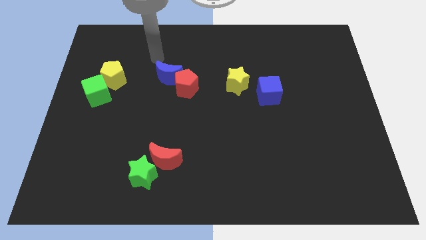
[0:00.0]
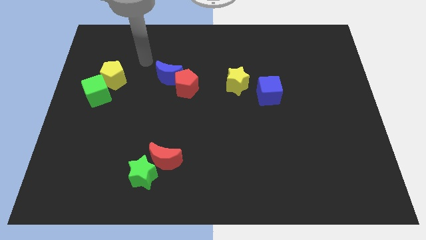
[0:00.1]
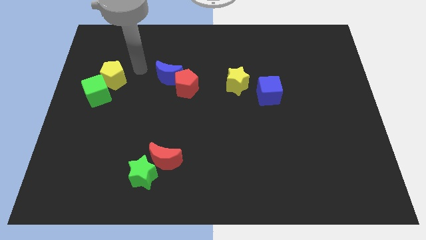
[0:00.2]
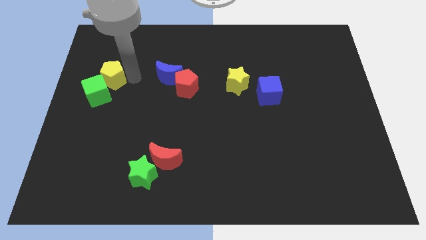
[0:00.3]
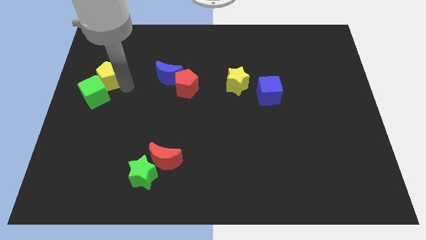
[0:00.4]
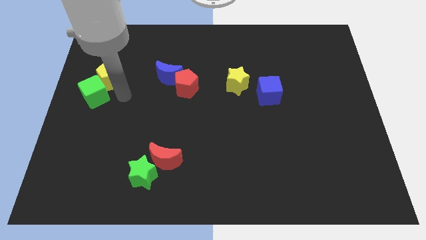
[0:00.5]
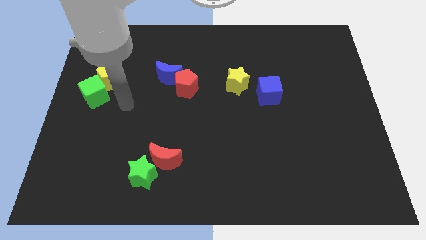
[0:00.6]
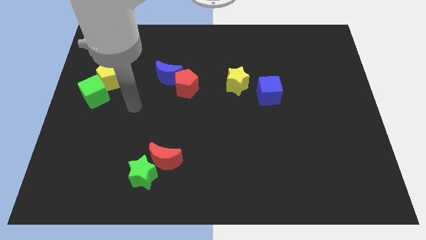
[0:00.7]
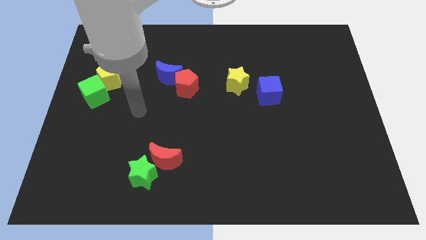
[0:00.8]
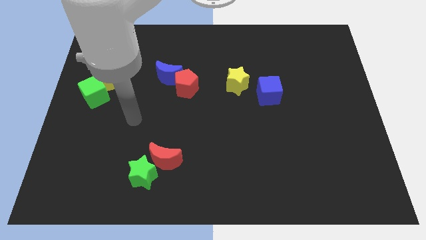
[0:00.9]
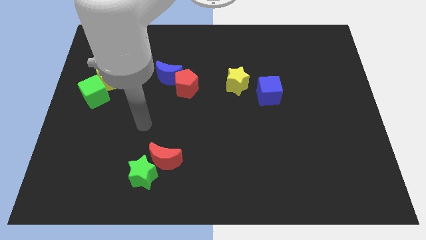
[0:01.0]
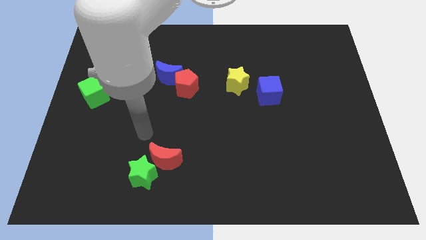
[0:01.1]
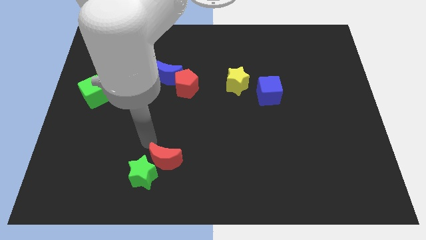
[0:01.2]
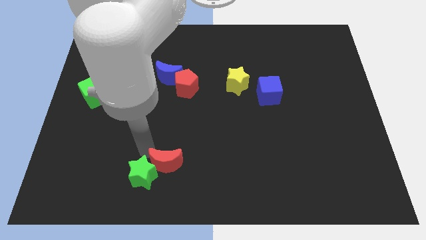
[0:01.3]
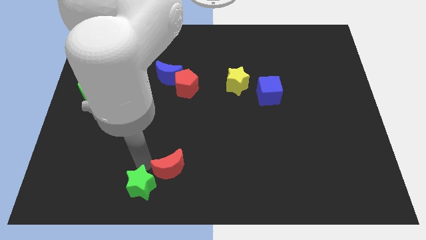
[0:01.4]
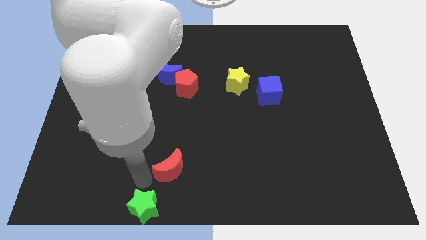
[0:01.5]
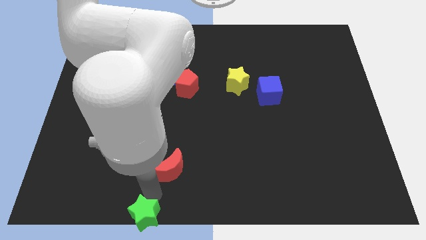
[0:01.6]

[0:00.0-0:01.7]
pull the red moon apart from the green star

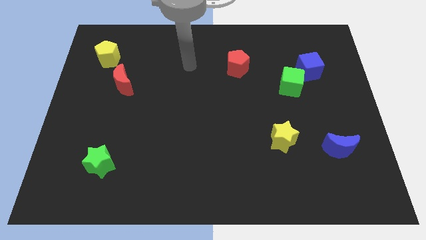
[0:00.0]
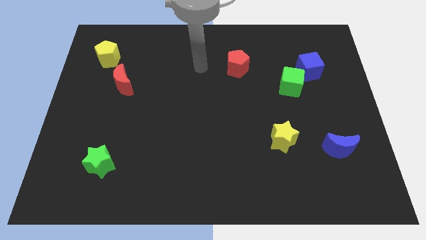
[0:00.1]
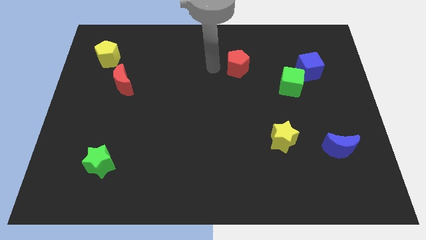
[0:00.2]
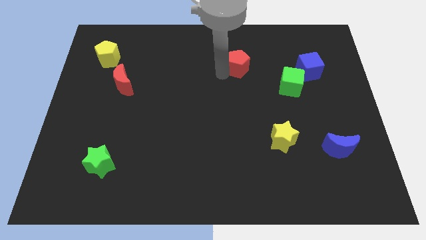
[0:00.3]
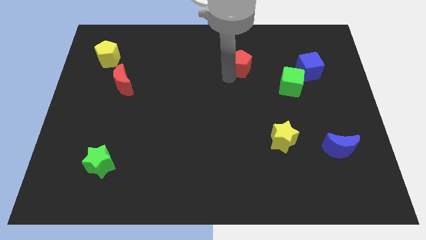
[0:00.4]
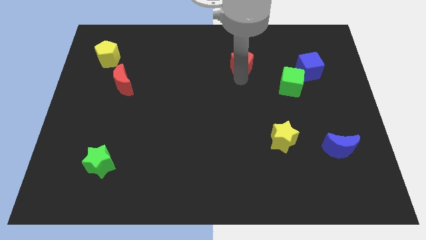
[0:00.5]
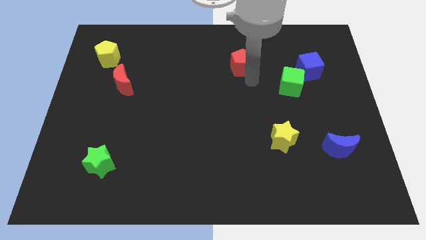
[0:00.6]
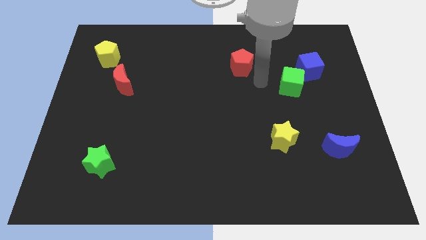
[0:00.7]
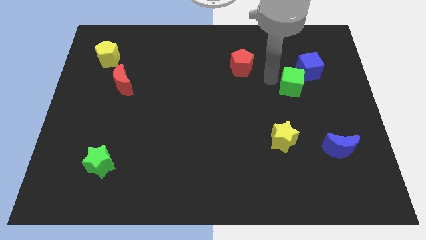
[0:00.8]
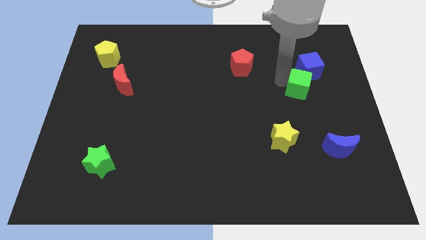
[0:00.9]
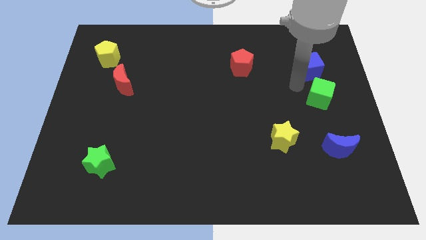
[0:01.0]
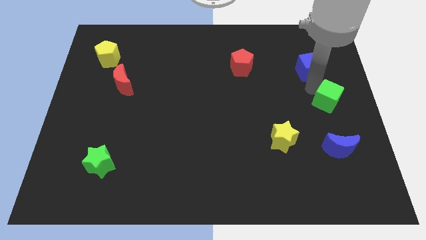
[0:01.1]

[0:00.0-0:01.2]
move the blue cube away from the green cube

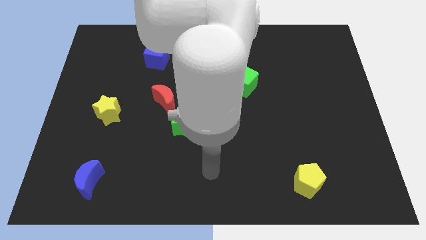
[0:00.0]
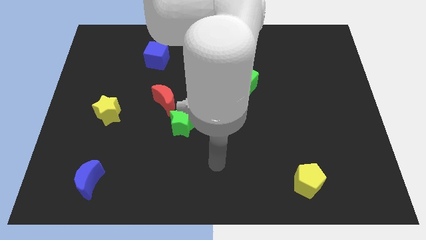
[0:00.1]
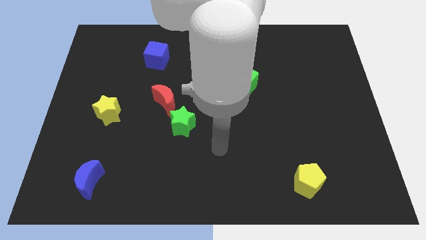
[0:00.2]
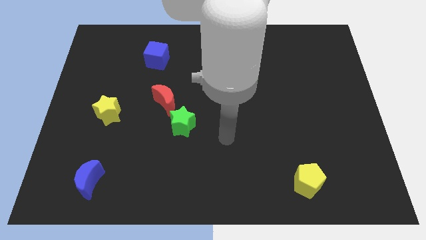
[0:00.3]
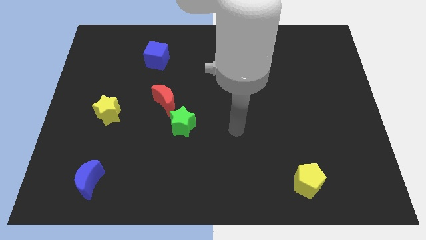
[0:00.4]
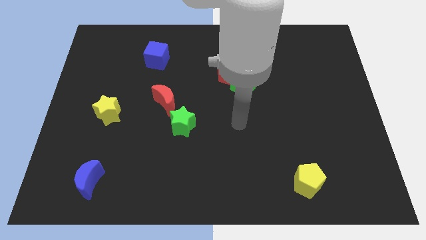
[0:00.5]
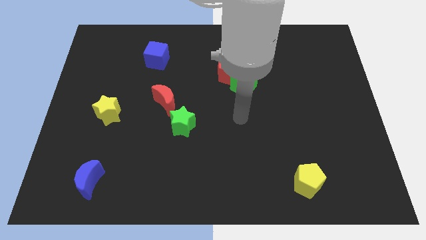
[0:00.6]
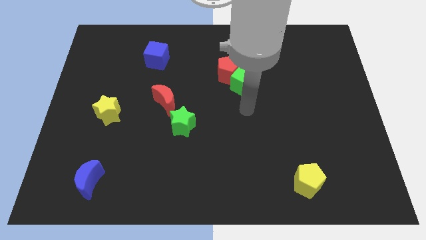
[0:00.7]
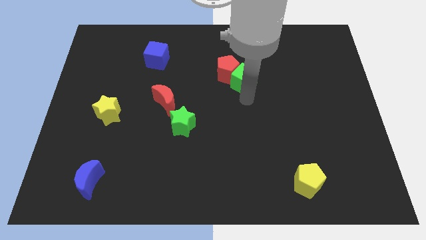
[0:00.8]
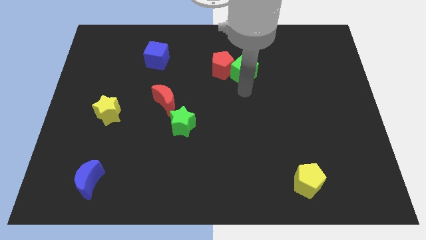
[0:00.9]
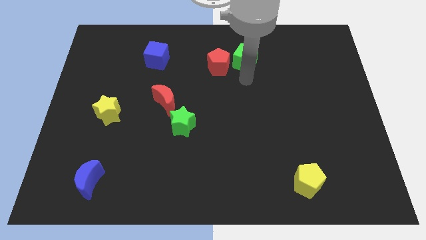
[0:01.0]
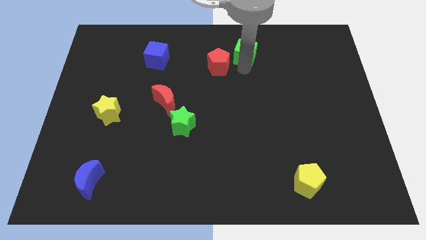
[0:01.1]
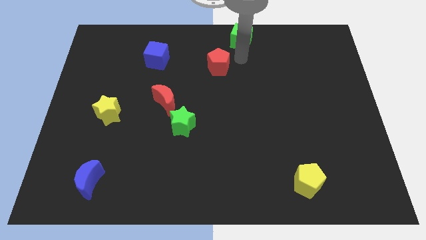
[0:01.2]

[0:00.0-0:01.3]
pull the red pentagon apart from the green cube

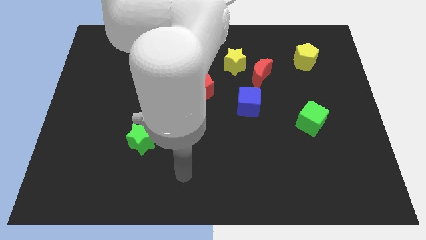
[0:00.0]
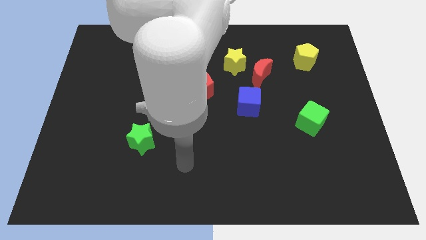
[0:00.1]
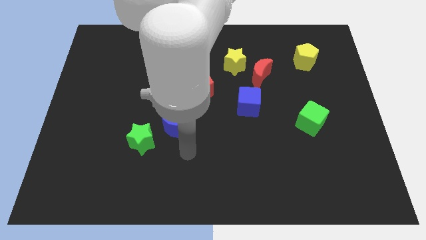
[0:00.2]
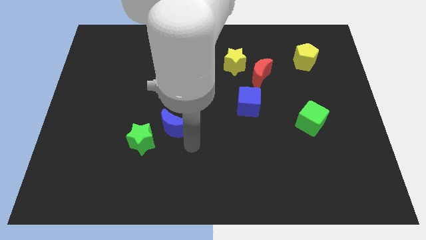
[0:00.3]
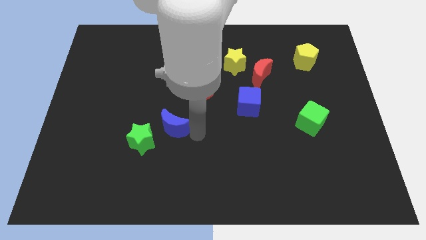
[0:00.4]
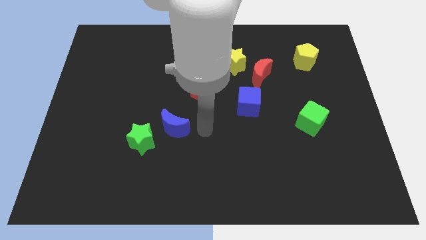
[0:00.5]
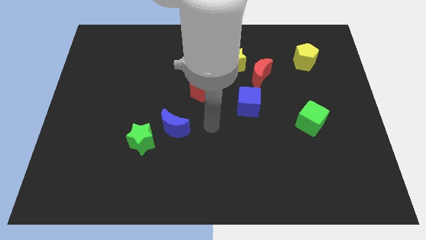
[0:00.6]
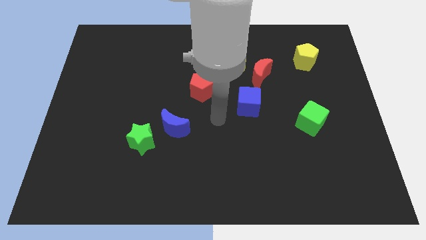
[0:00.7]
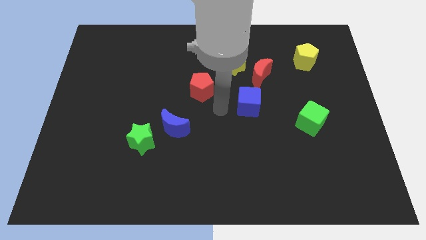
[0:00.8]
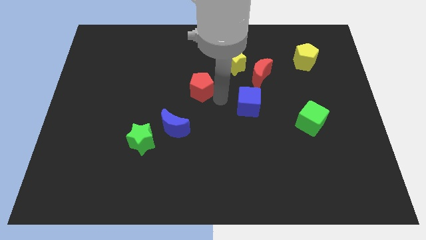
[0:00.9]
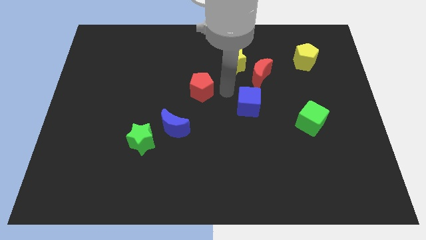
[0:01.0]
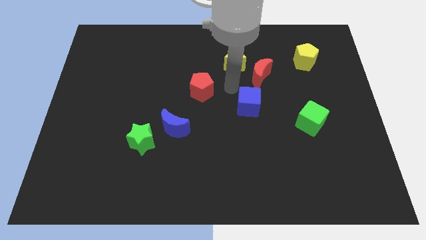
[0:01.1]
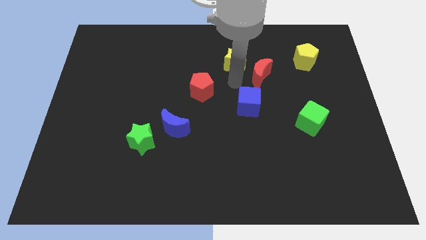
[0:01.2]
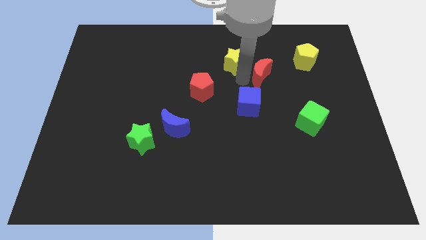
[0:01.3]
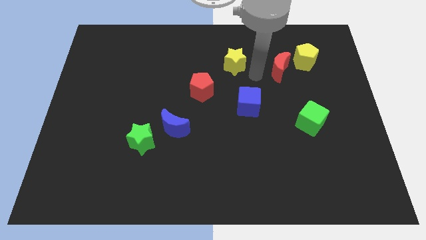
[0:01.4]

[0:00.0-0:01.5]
move the yellow star away from the red moon

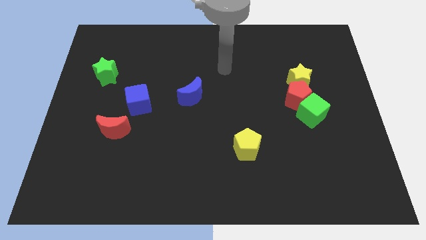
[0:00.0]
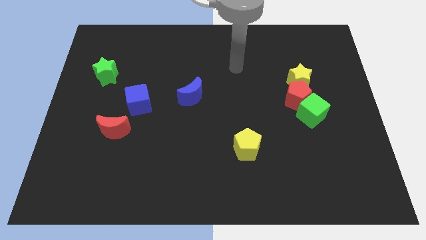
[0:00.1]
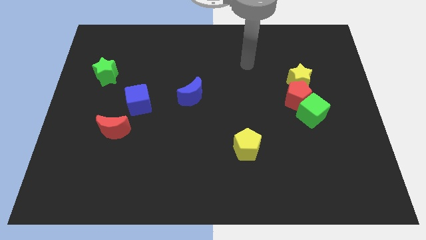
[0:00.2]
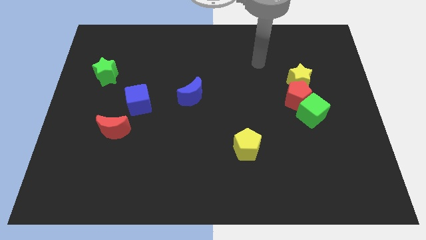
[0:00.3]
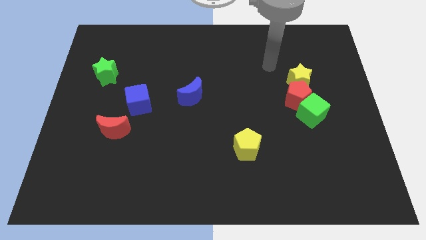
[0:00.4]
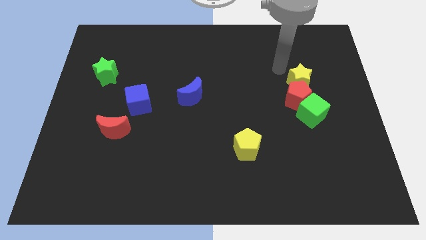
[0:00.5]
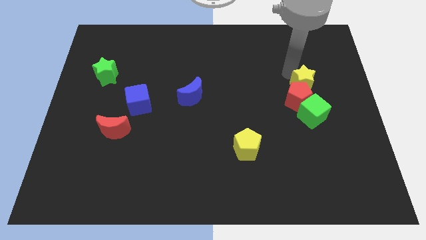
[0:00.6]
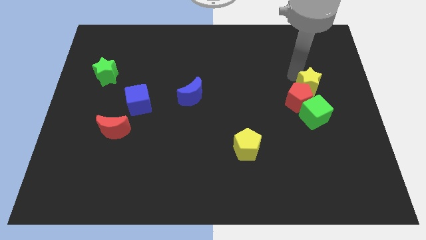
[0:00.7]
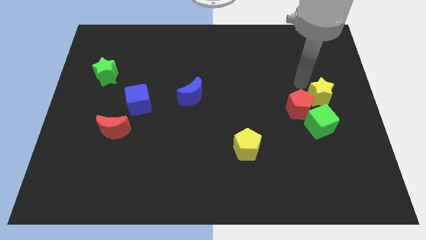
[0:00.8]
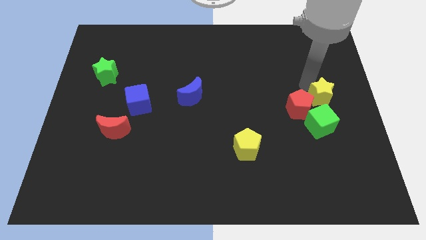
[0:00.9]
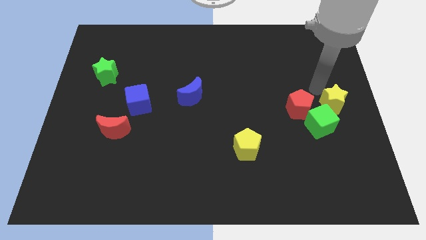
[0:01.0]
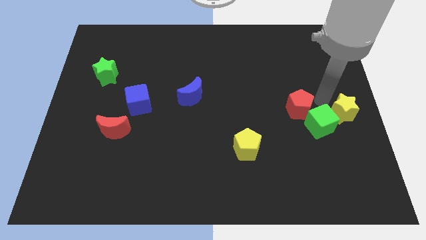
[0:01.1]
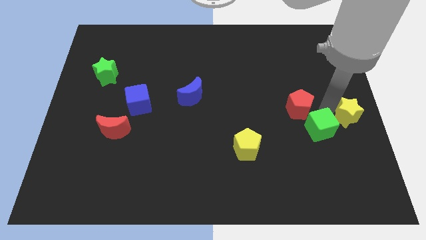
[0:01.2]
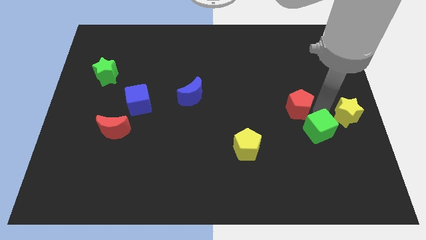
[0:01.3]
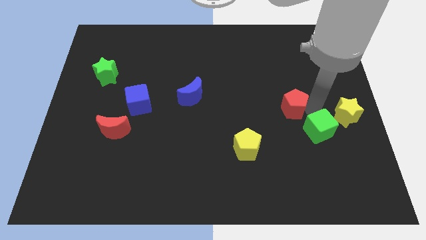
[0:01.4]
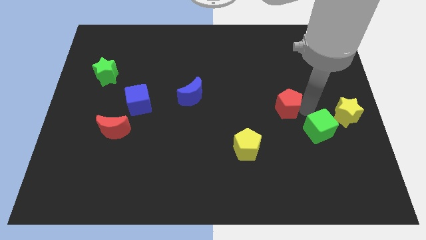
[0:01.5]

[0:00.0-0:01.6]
pull the red pentagon apart from the green cube and yellow star

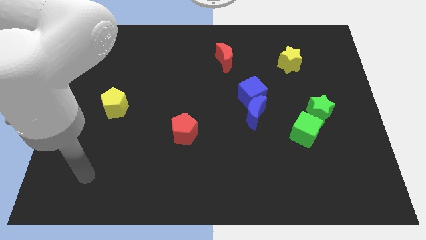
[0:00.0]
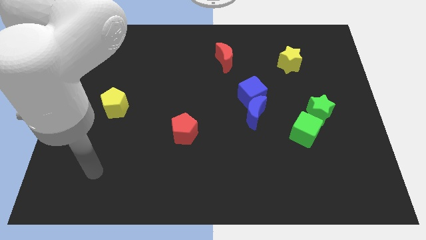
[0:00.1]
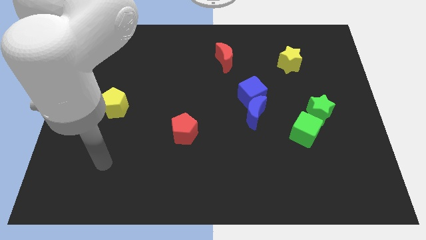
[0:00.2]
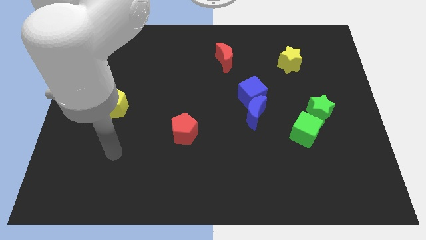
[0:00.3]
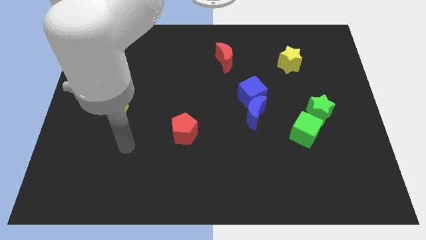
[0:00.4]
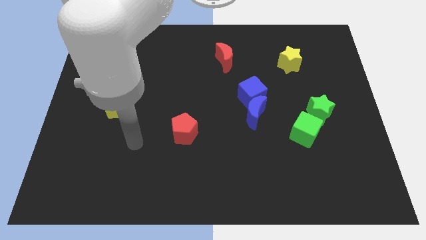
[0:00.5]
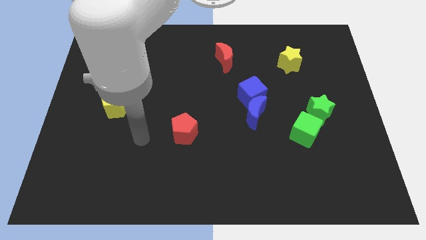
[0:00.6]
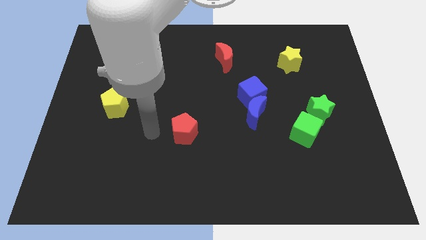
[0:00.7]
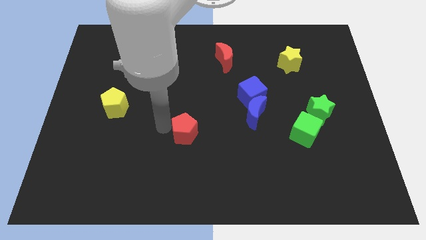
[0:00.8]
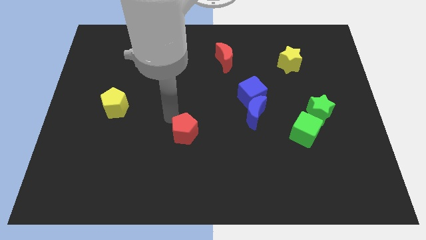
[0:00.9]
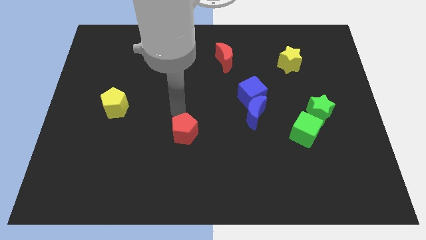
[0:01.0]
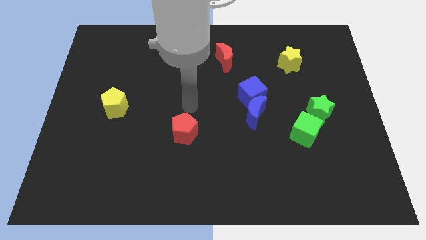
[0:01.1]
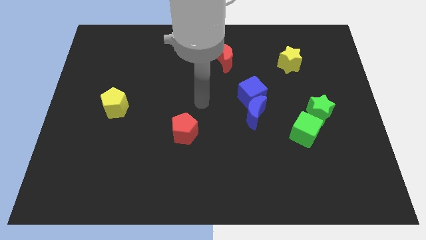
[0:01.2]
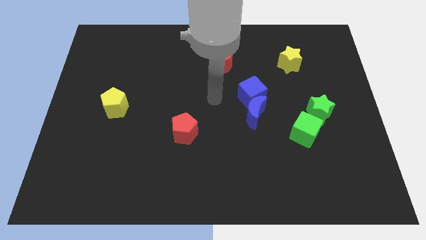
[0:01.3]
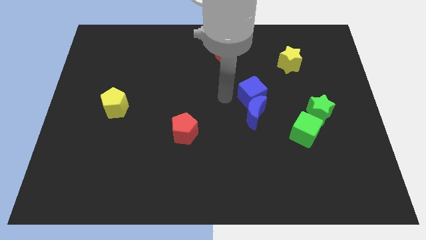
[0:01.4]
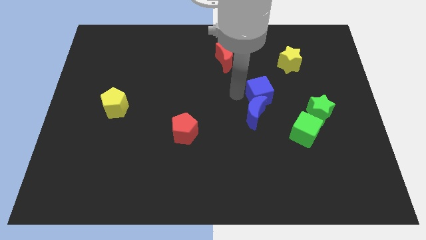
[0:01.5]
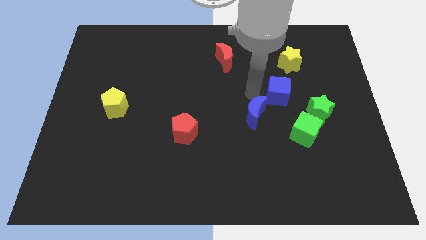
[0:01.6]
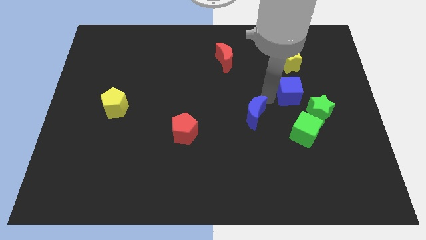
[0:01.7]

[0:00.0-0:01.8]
move the blue moon away from the blue cube

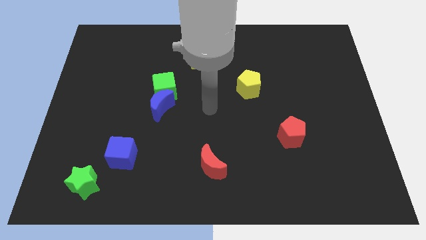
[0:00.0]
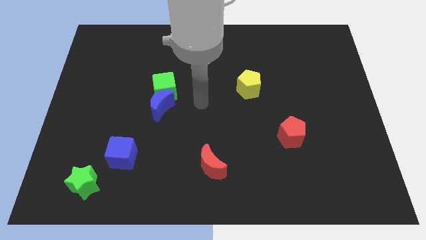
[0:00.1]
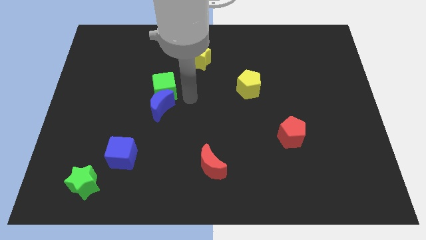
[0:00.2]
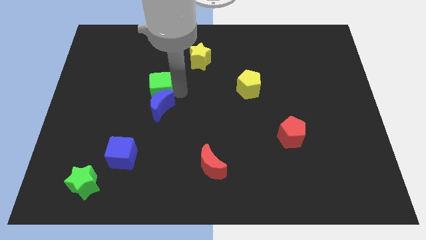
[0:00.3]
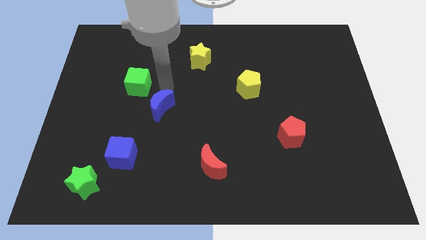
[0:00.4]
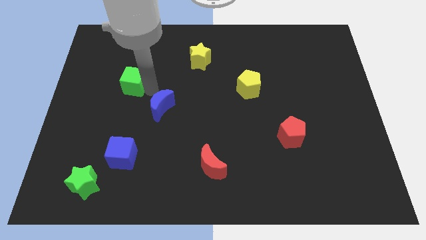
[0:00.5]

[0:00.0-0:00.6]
pull the blue moon apart from the green cube
